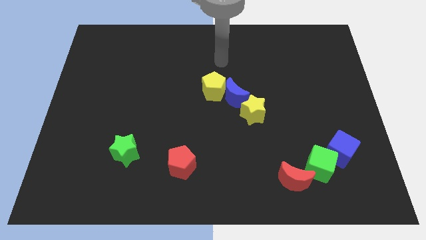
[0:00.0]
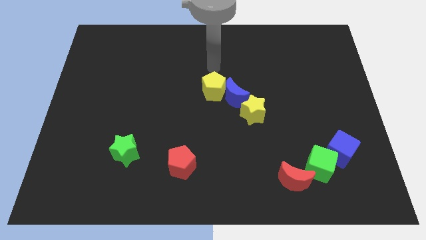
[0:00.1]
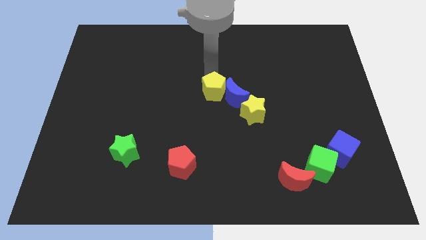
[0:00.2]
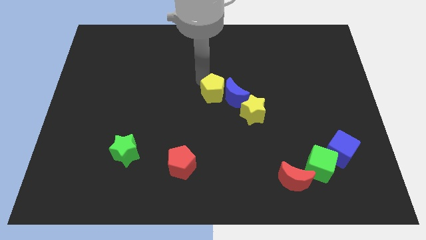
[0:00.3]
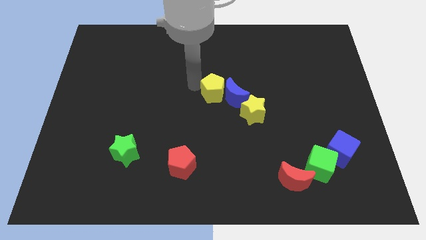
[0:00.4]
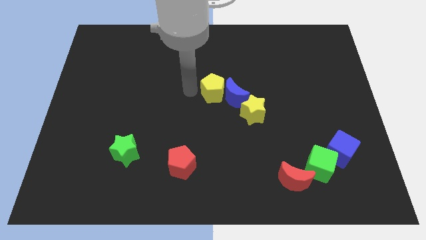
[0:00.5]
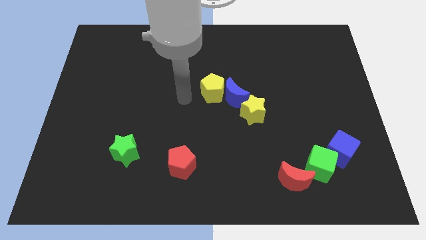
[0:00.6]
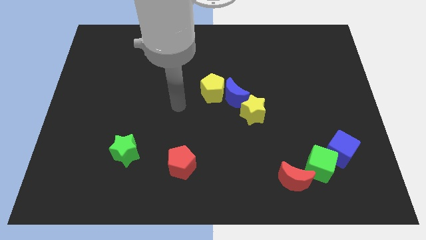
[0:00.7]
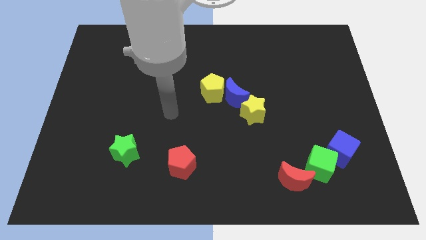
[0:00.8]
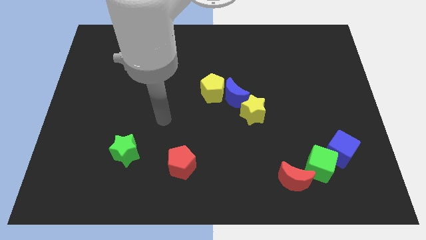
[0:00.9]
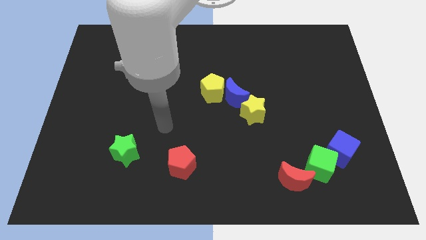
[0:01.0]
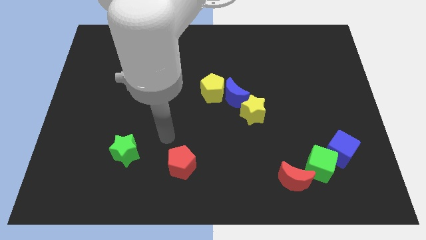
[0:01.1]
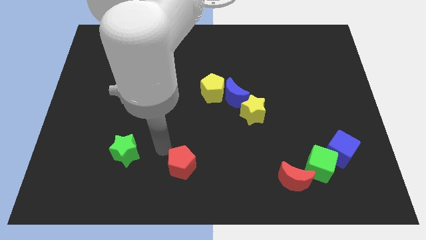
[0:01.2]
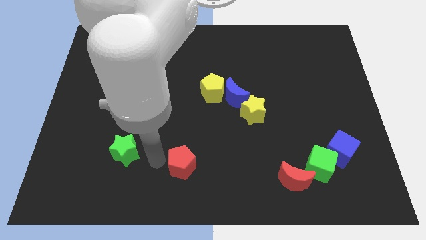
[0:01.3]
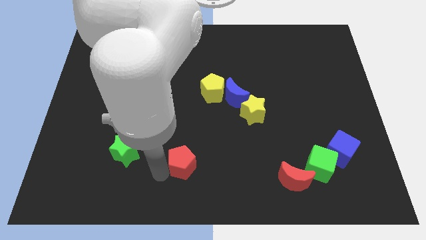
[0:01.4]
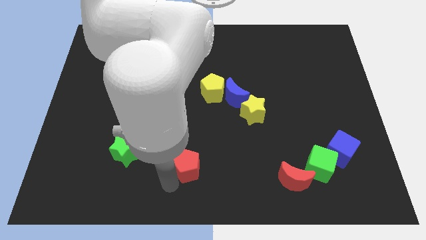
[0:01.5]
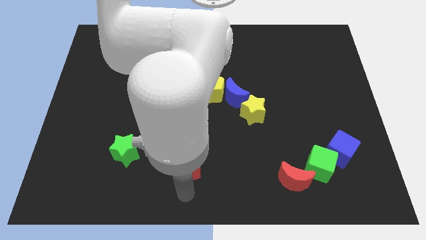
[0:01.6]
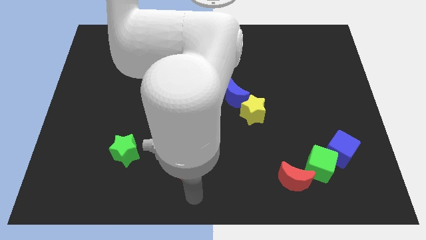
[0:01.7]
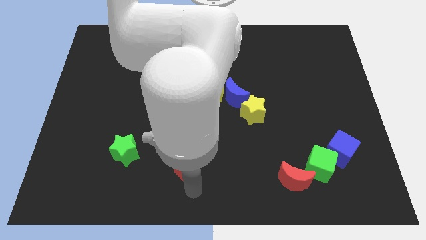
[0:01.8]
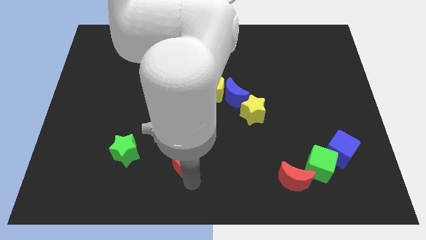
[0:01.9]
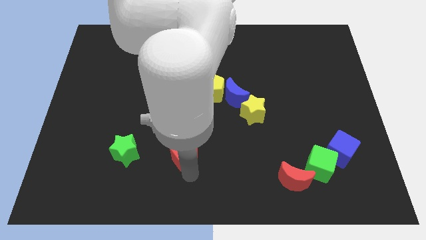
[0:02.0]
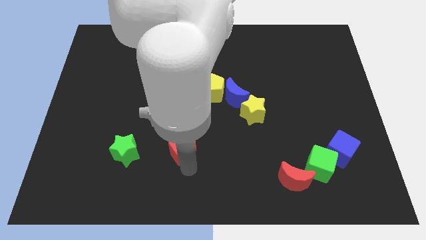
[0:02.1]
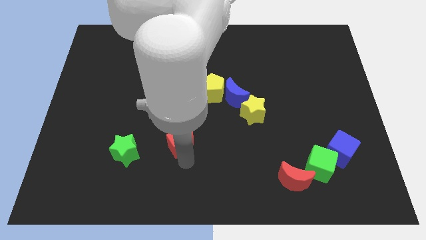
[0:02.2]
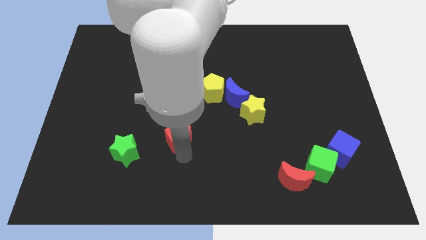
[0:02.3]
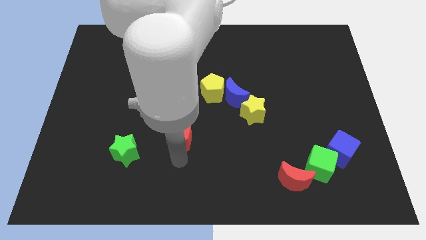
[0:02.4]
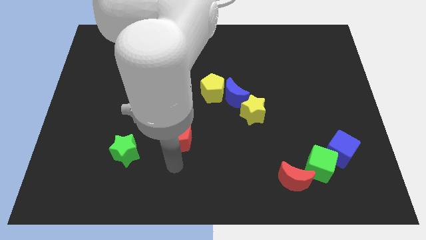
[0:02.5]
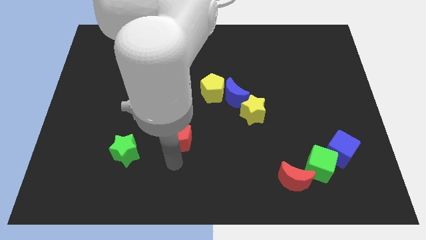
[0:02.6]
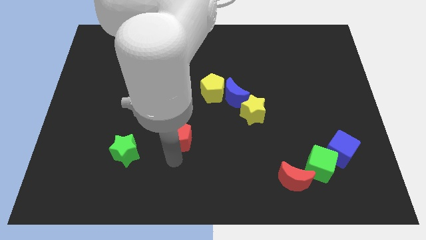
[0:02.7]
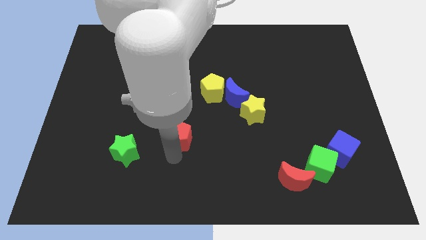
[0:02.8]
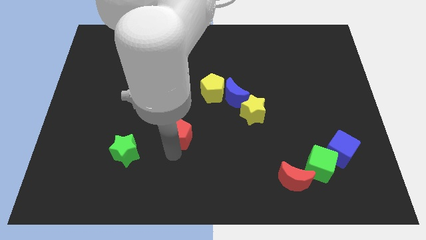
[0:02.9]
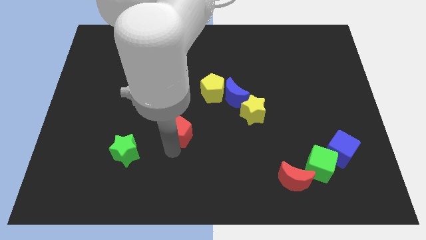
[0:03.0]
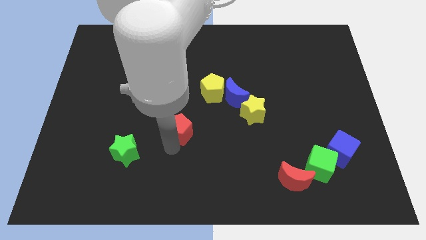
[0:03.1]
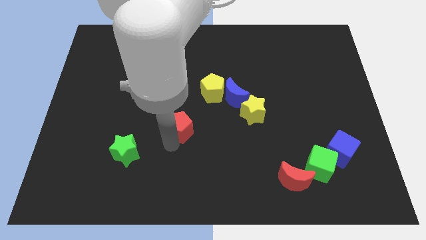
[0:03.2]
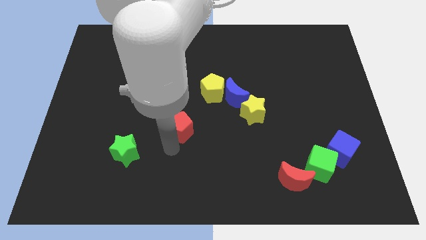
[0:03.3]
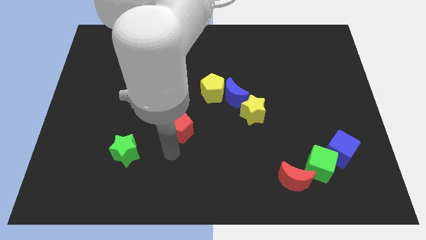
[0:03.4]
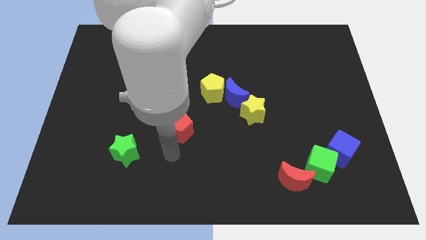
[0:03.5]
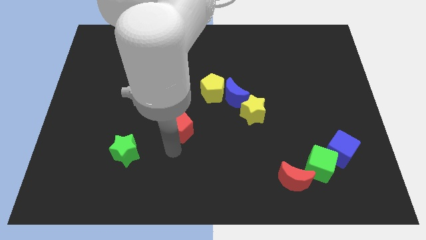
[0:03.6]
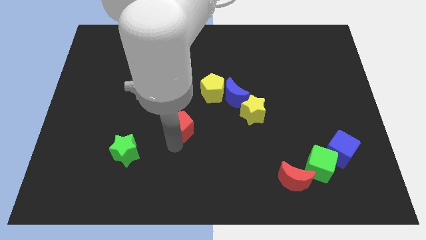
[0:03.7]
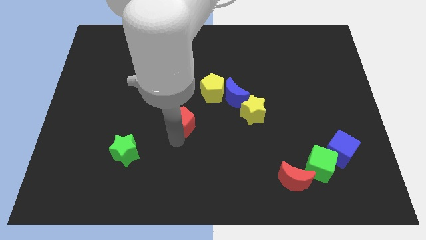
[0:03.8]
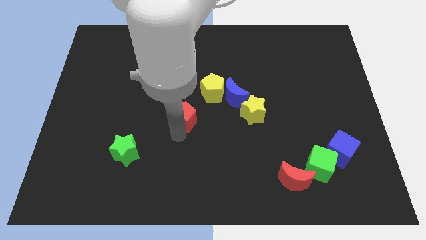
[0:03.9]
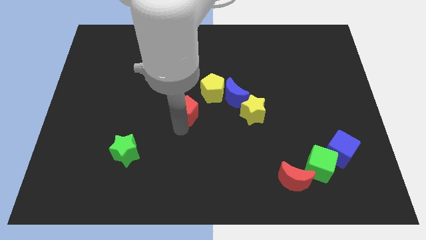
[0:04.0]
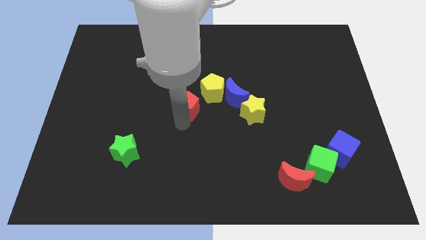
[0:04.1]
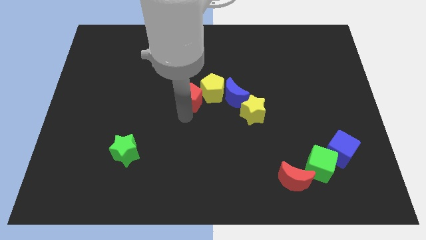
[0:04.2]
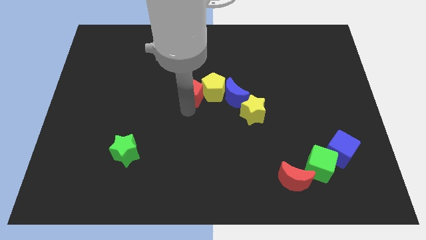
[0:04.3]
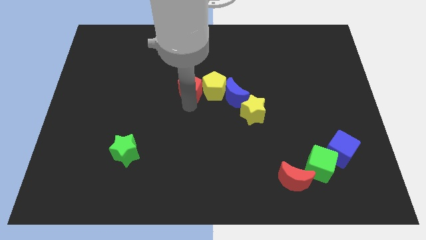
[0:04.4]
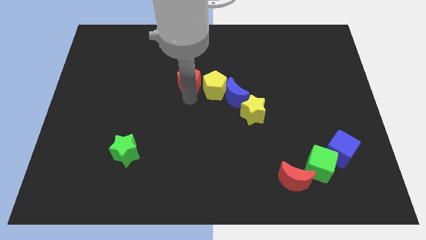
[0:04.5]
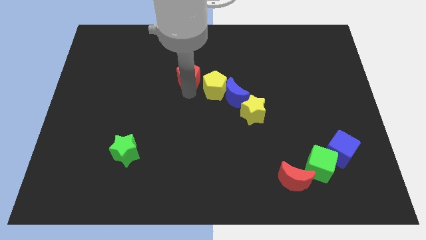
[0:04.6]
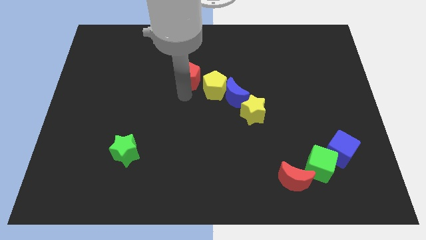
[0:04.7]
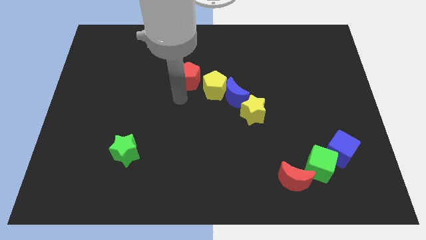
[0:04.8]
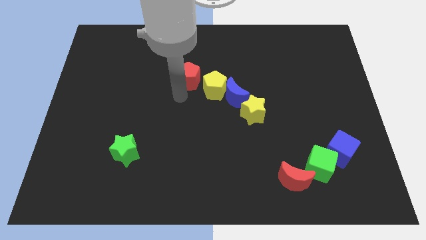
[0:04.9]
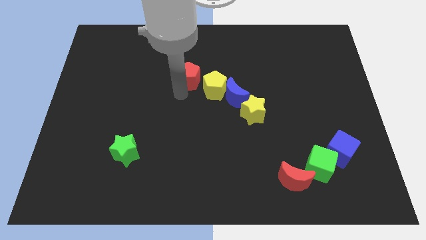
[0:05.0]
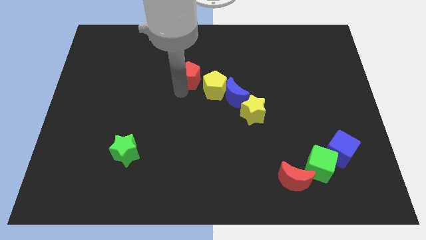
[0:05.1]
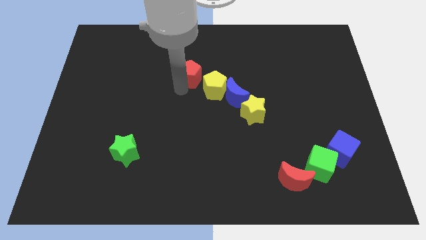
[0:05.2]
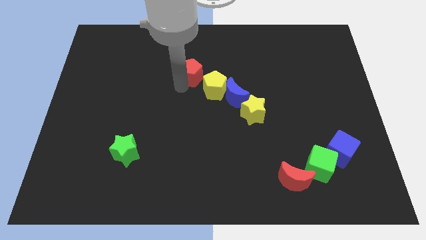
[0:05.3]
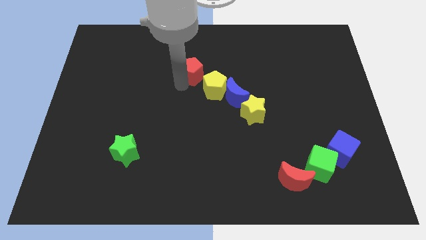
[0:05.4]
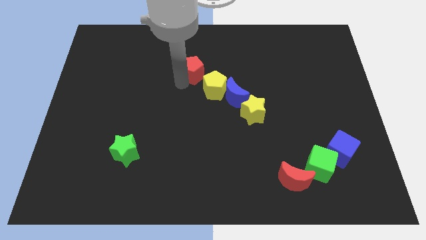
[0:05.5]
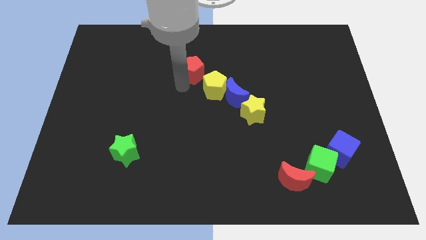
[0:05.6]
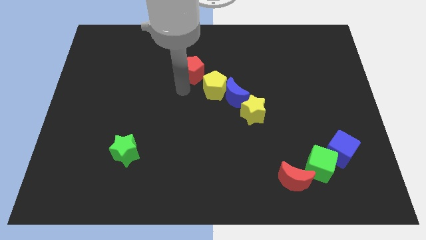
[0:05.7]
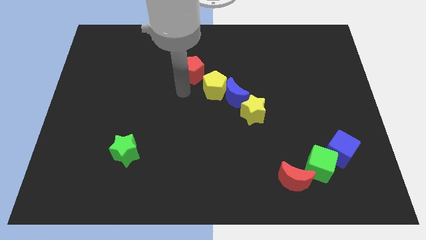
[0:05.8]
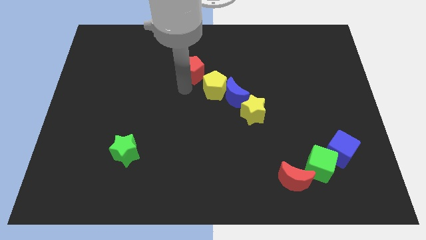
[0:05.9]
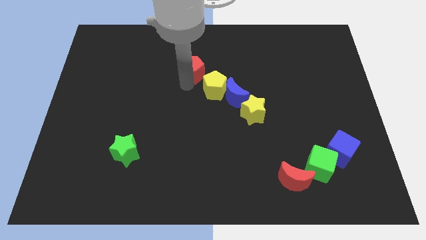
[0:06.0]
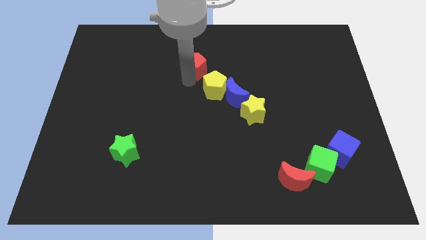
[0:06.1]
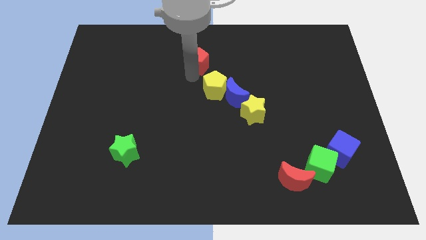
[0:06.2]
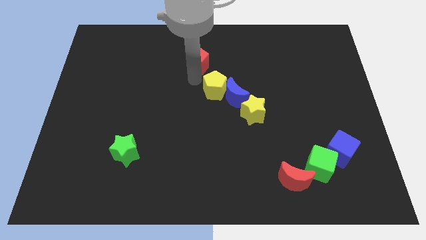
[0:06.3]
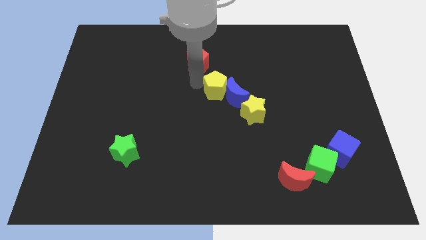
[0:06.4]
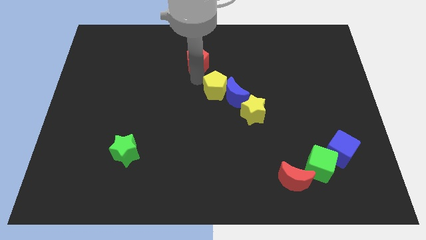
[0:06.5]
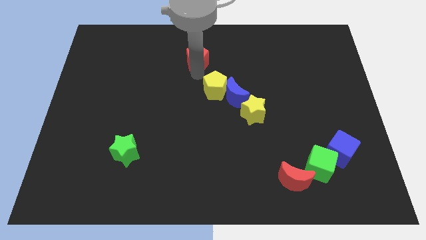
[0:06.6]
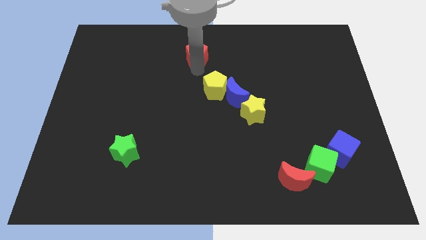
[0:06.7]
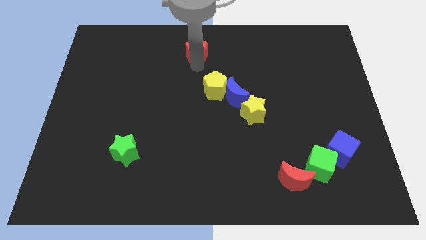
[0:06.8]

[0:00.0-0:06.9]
slide the red pentagon to the top

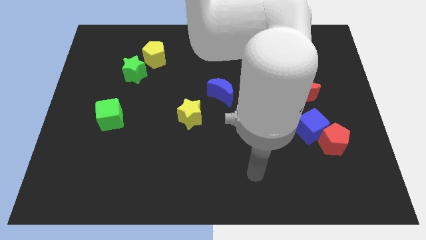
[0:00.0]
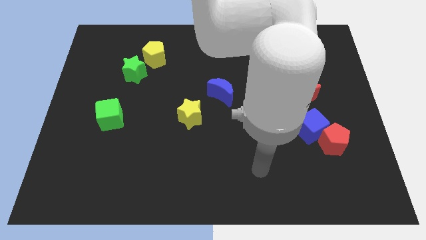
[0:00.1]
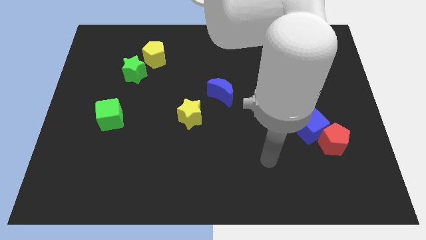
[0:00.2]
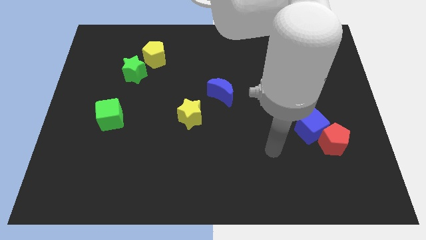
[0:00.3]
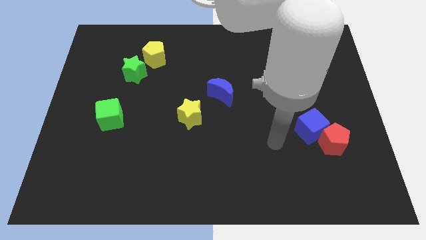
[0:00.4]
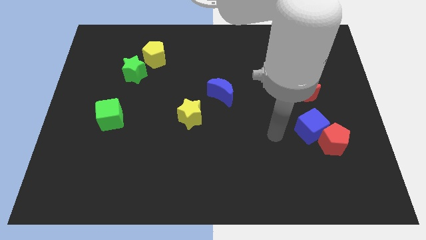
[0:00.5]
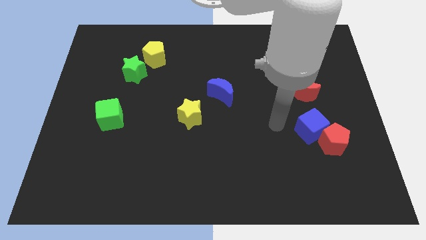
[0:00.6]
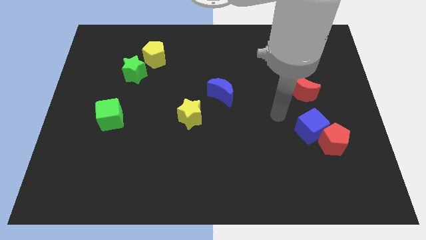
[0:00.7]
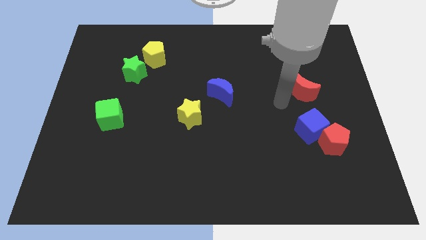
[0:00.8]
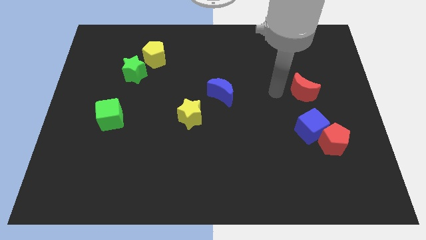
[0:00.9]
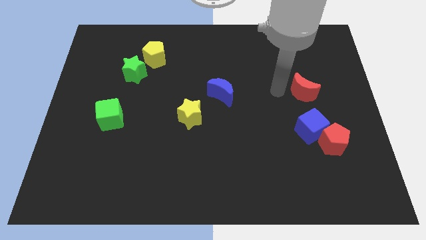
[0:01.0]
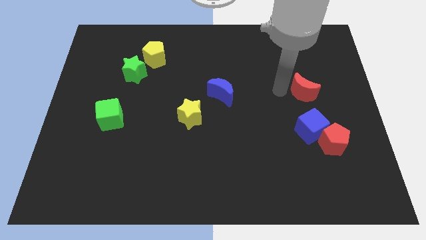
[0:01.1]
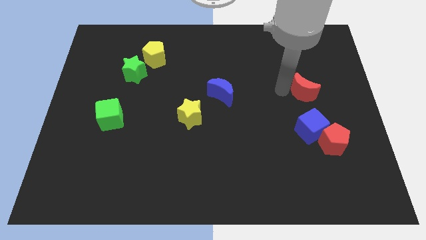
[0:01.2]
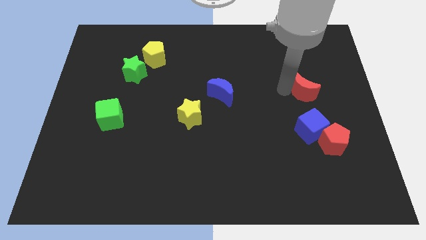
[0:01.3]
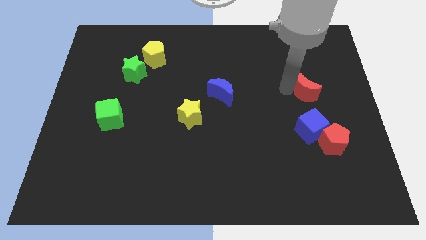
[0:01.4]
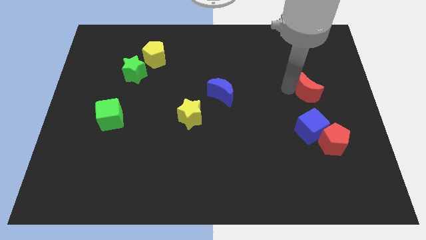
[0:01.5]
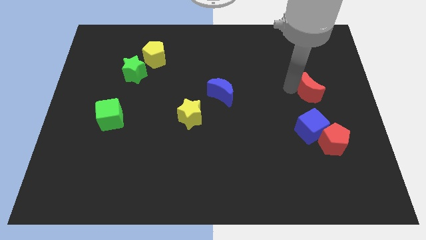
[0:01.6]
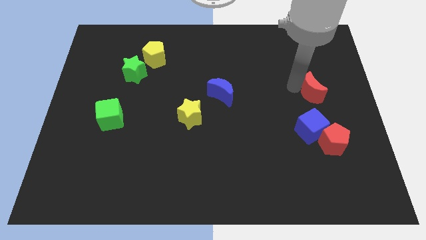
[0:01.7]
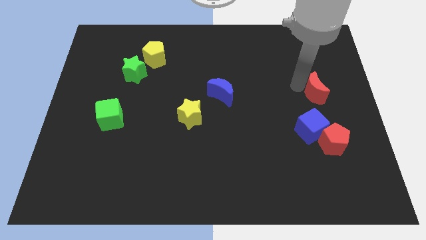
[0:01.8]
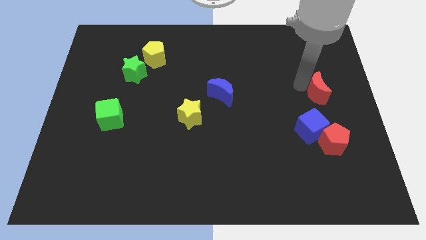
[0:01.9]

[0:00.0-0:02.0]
move the red moon to the right side
